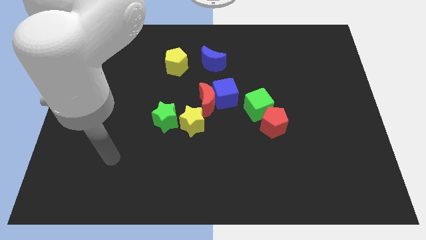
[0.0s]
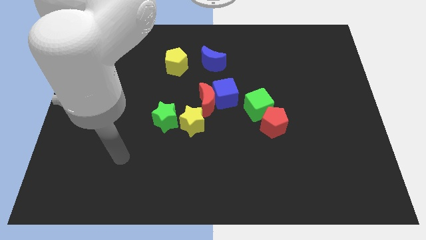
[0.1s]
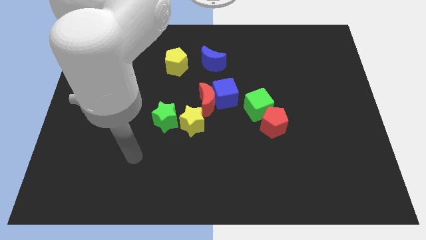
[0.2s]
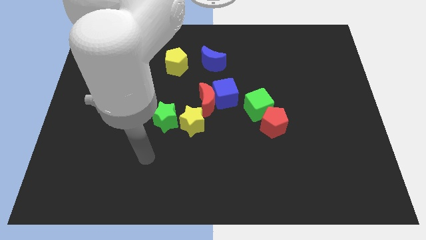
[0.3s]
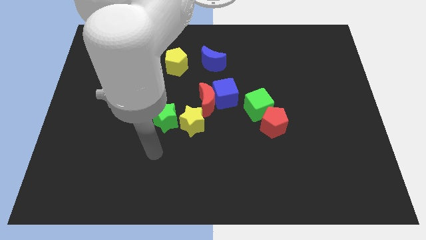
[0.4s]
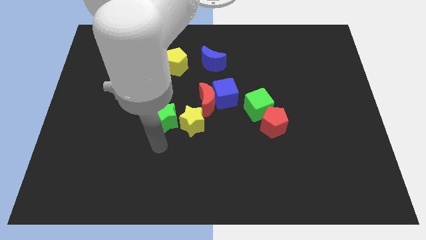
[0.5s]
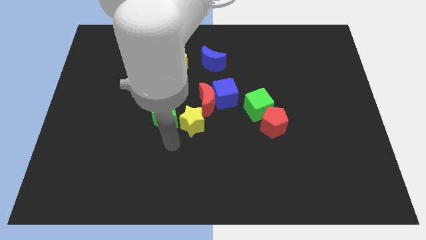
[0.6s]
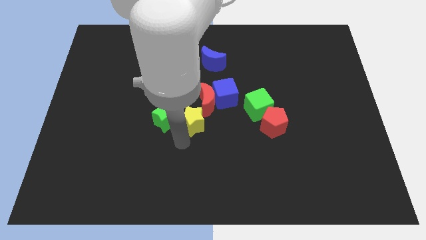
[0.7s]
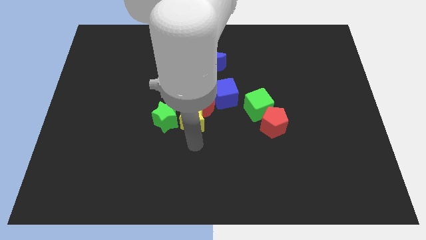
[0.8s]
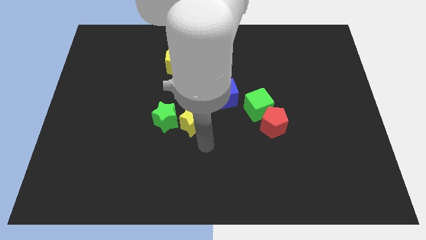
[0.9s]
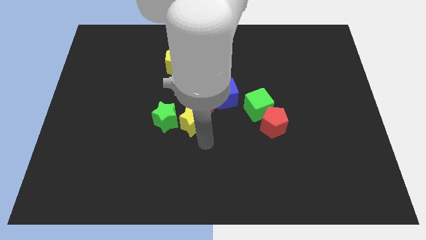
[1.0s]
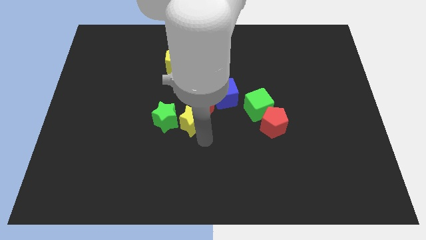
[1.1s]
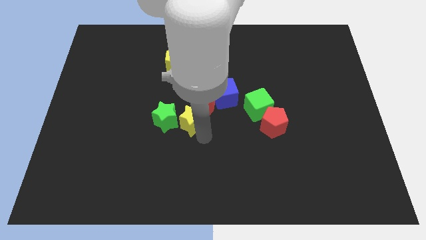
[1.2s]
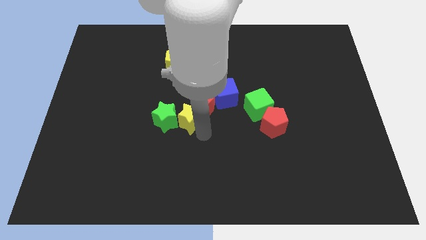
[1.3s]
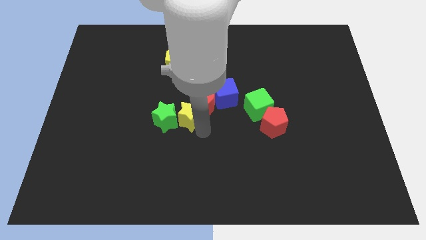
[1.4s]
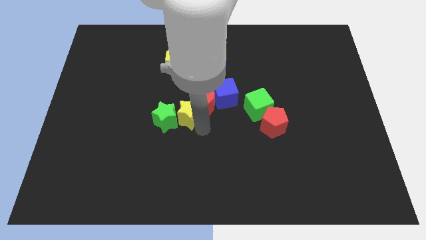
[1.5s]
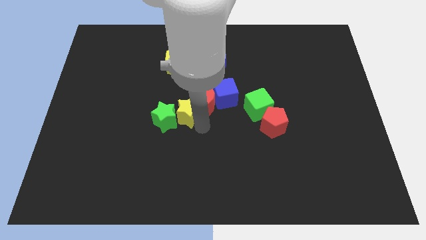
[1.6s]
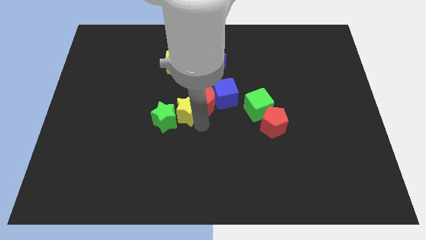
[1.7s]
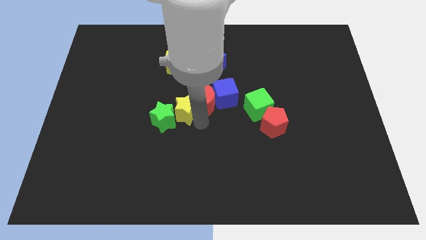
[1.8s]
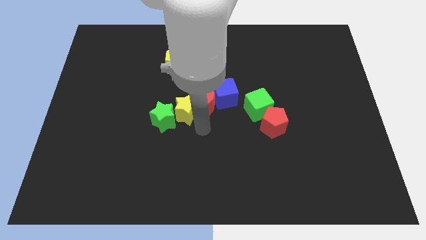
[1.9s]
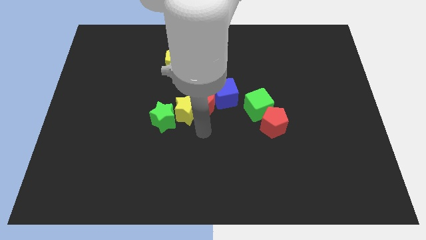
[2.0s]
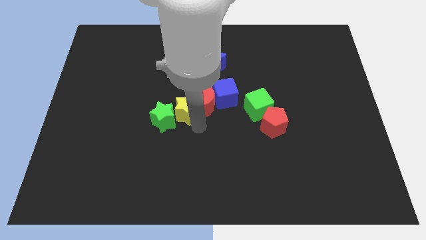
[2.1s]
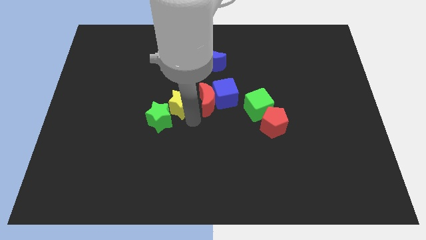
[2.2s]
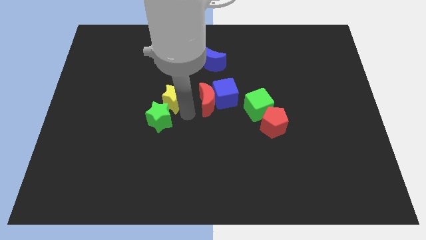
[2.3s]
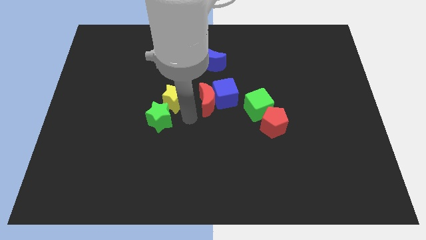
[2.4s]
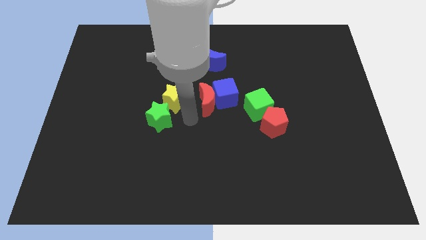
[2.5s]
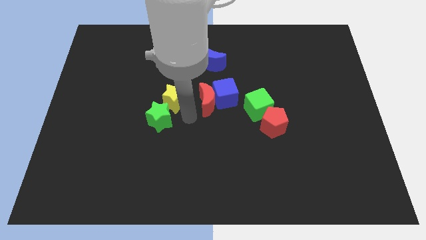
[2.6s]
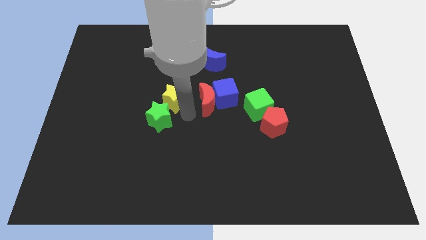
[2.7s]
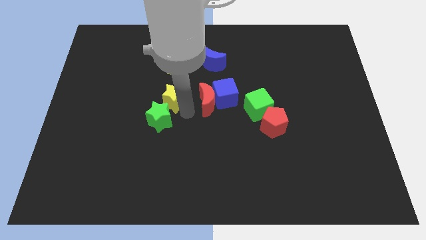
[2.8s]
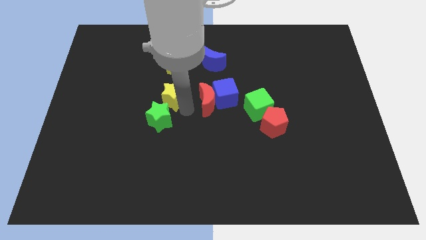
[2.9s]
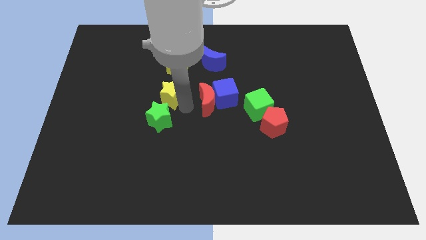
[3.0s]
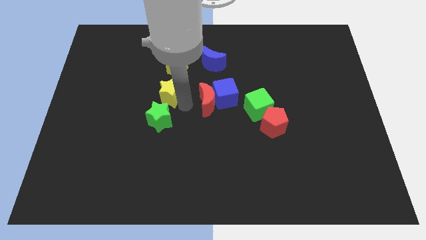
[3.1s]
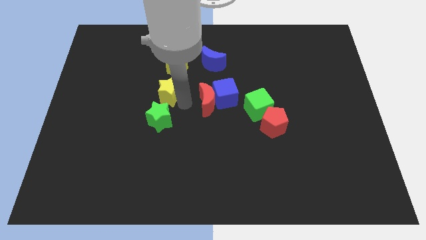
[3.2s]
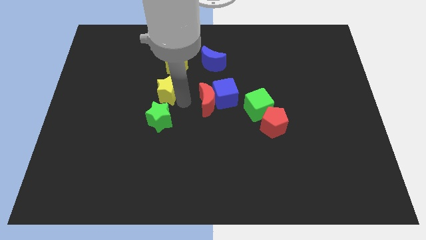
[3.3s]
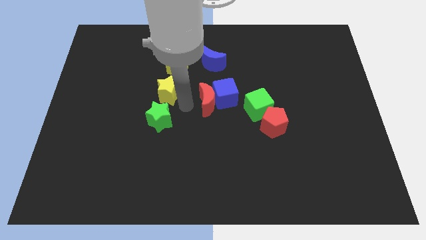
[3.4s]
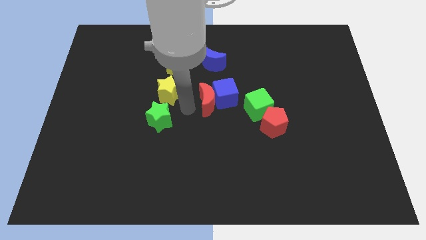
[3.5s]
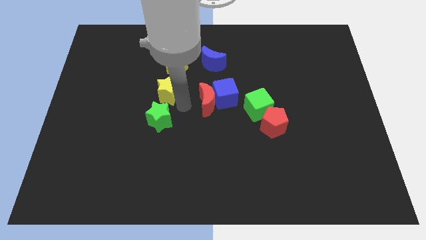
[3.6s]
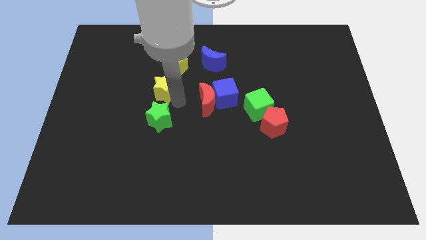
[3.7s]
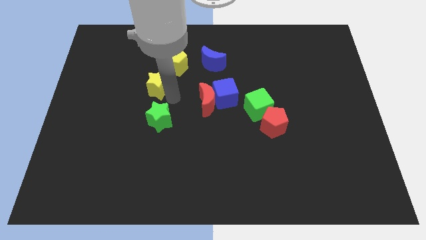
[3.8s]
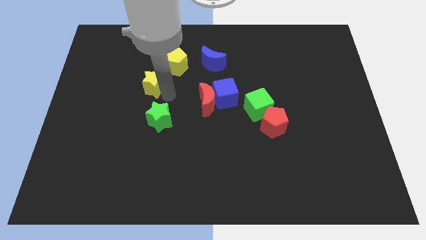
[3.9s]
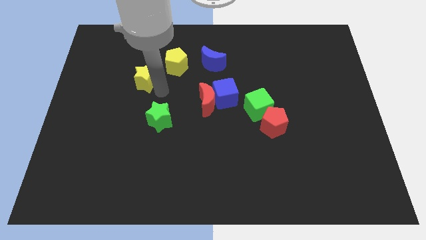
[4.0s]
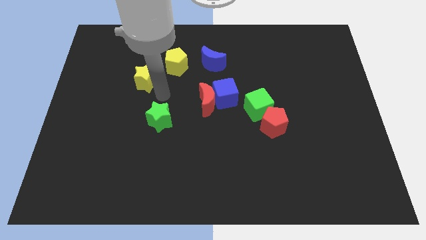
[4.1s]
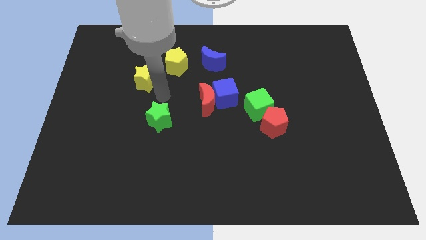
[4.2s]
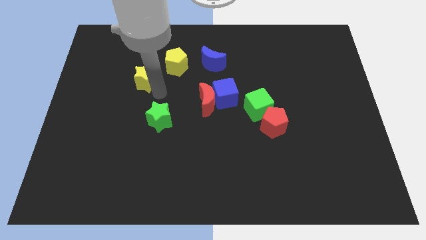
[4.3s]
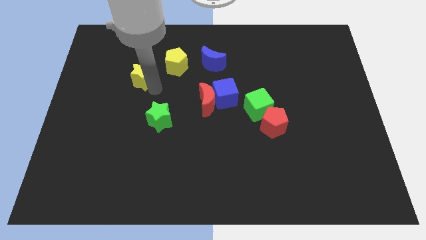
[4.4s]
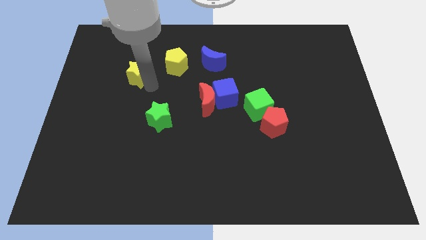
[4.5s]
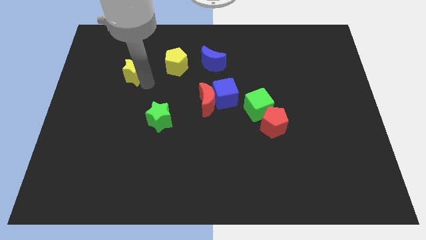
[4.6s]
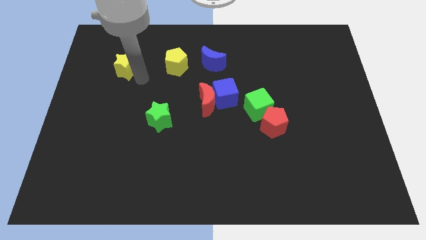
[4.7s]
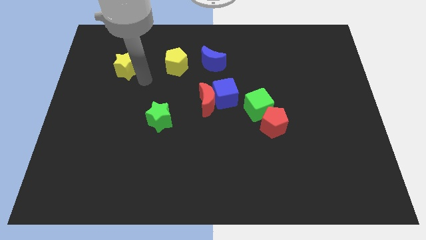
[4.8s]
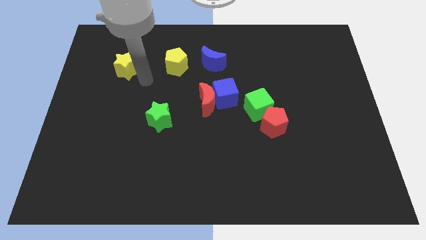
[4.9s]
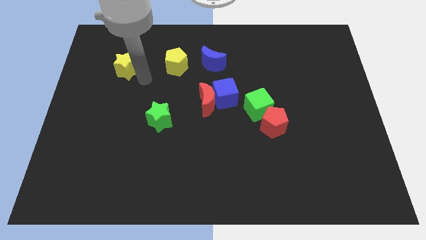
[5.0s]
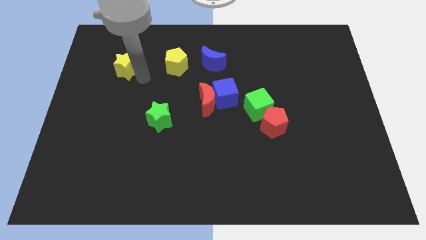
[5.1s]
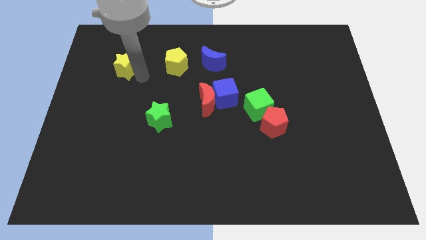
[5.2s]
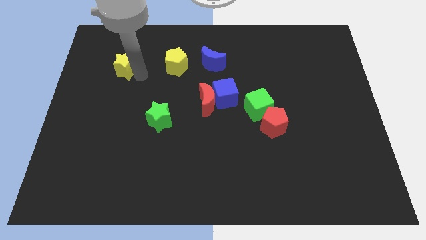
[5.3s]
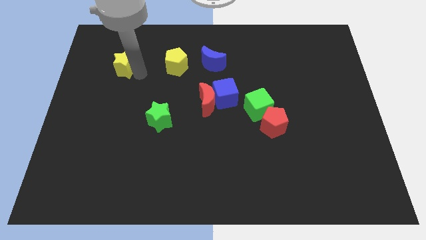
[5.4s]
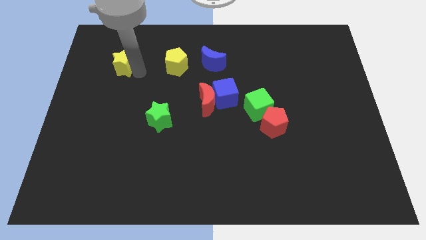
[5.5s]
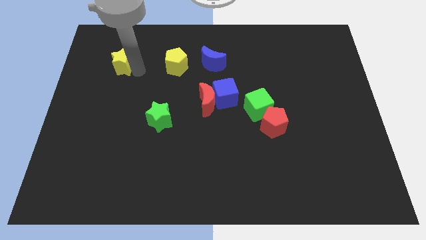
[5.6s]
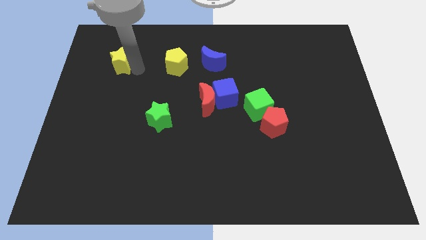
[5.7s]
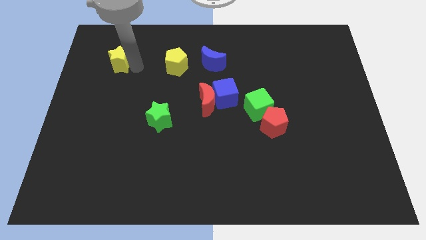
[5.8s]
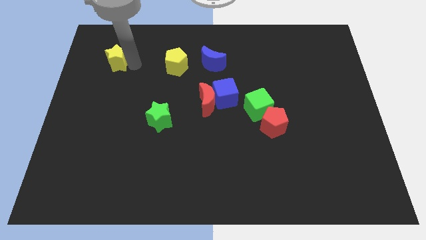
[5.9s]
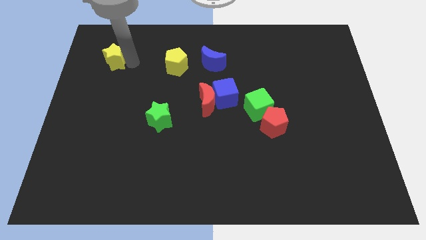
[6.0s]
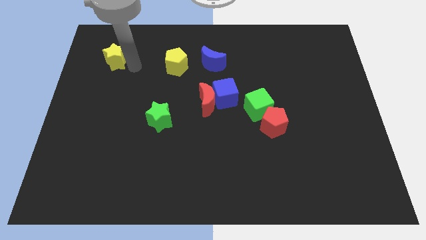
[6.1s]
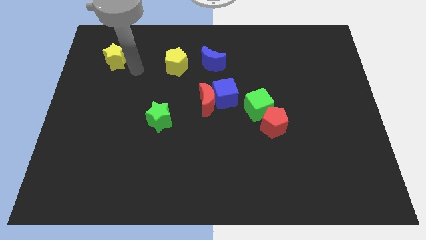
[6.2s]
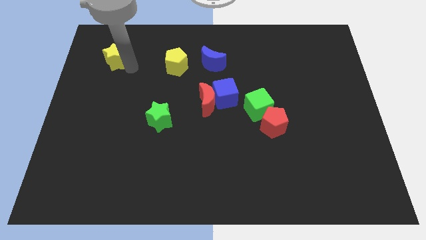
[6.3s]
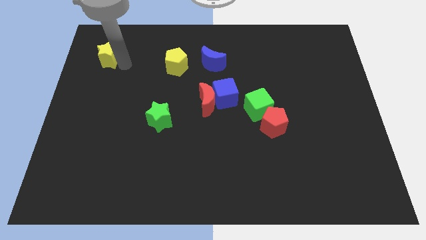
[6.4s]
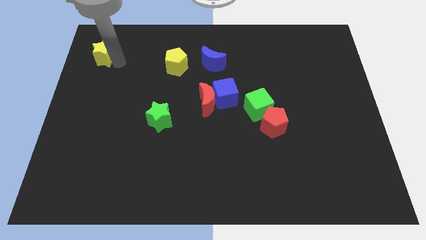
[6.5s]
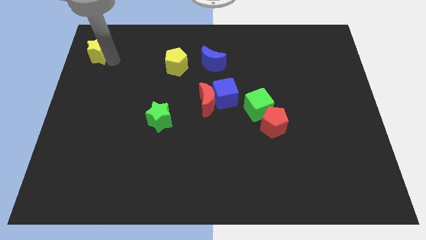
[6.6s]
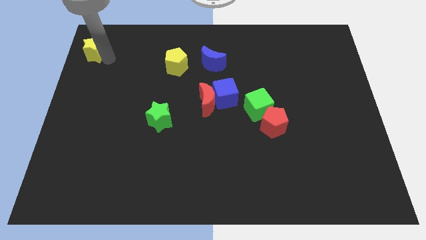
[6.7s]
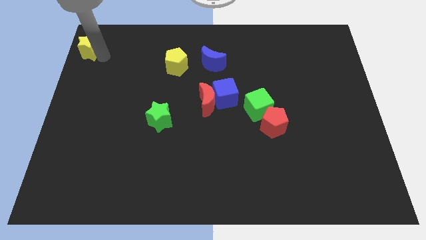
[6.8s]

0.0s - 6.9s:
slide the yellow star to the upper left corner

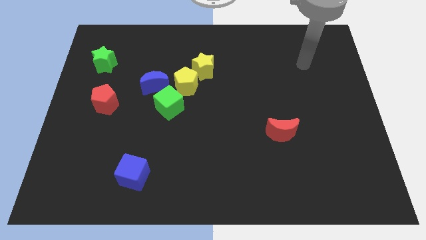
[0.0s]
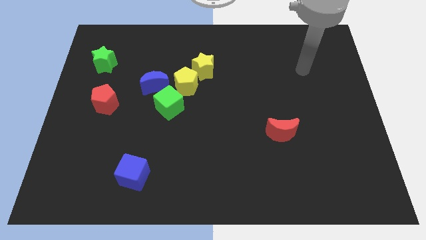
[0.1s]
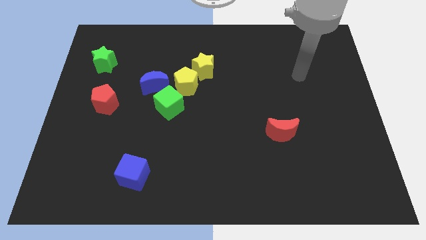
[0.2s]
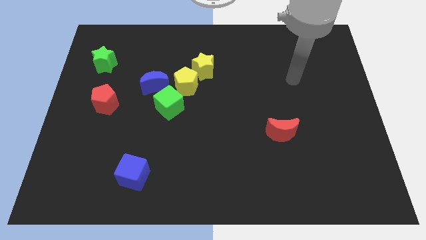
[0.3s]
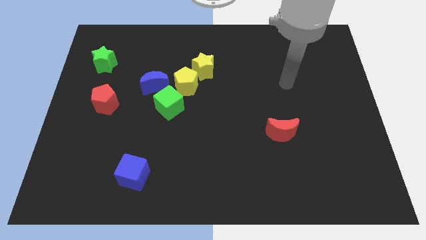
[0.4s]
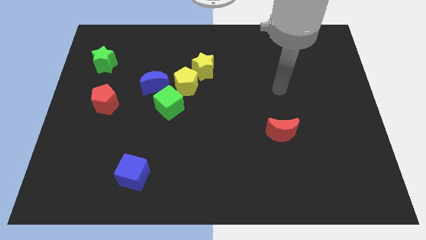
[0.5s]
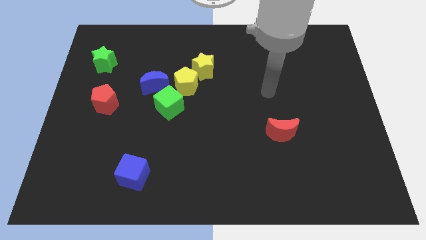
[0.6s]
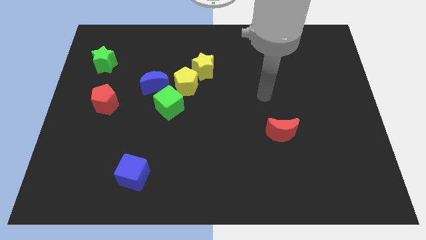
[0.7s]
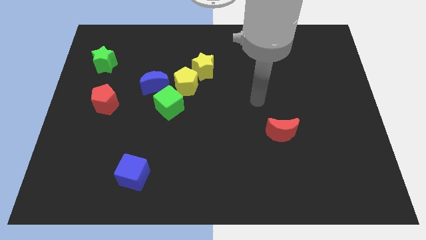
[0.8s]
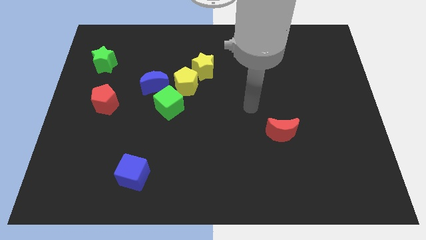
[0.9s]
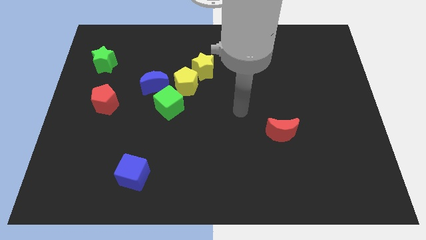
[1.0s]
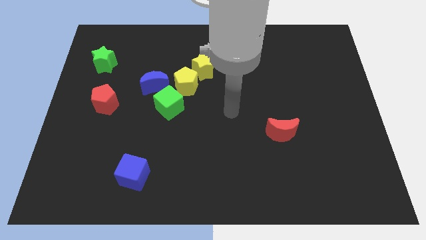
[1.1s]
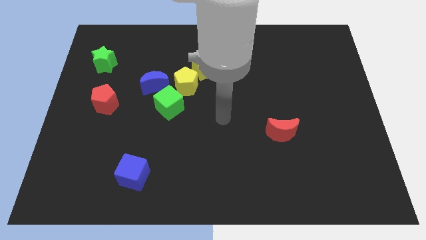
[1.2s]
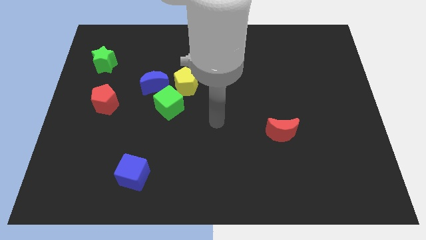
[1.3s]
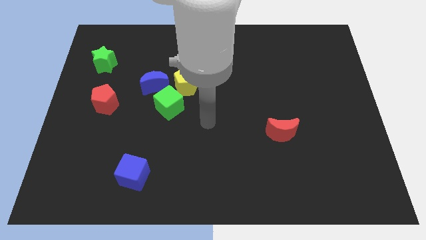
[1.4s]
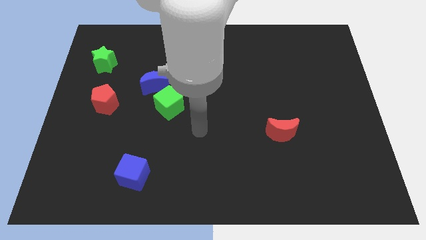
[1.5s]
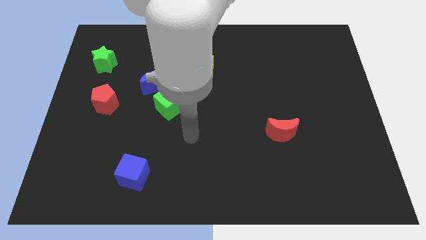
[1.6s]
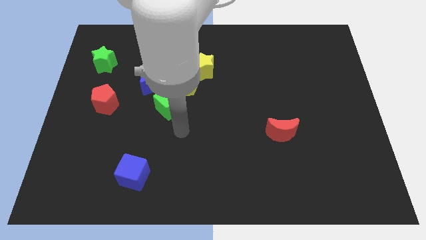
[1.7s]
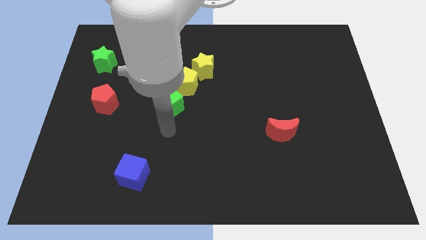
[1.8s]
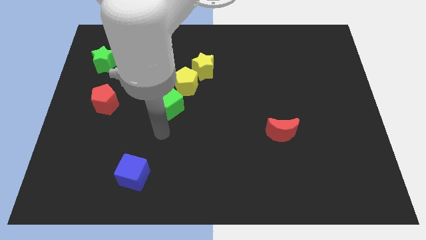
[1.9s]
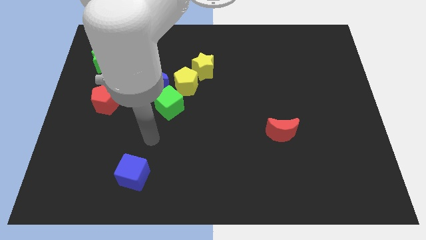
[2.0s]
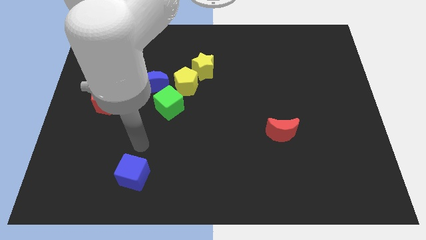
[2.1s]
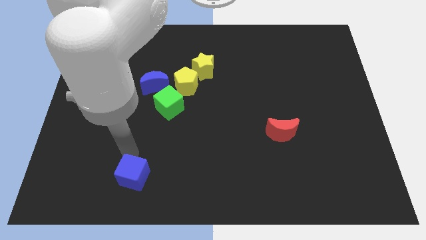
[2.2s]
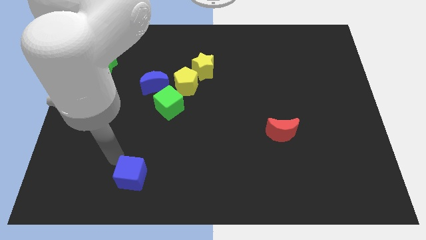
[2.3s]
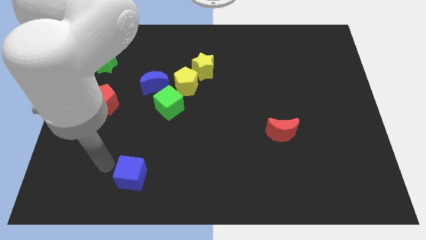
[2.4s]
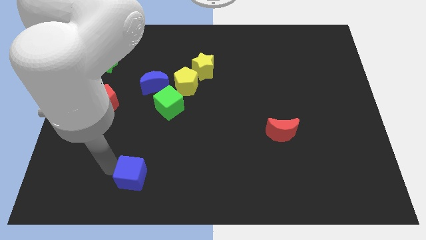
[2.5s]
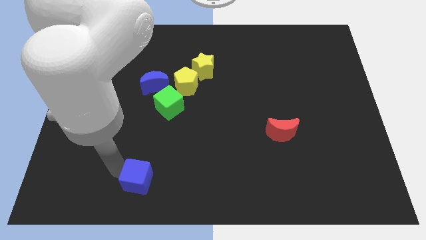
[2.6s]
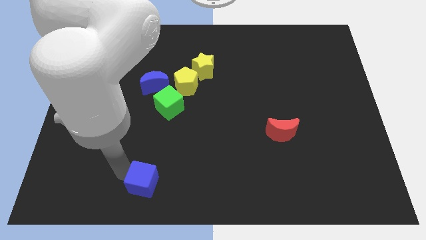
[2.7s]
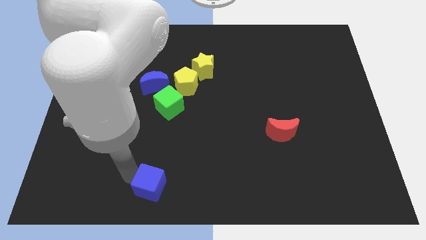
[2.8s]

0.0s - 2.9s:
put the blue cube to the bottom side
